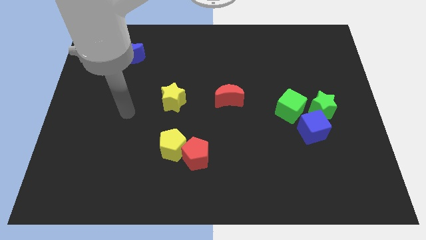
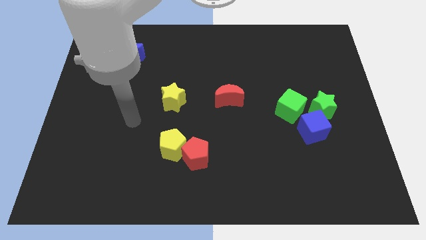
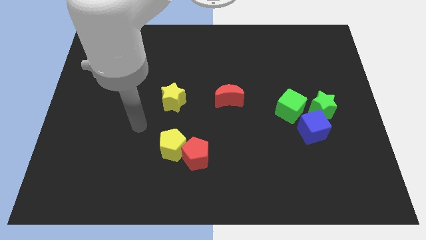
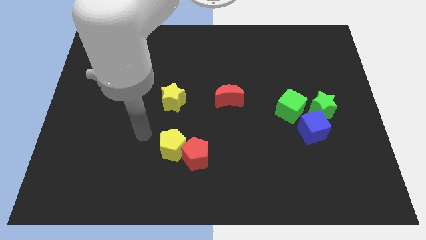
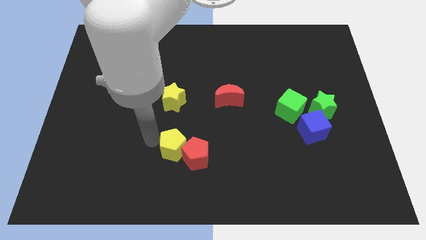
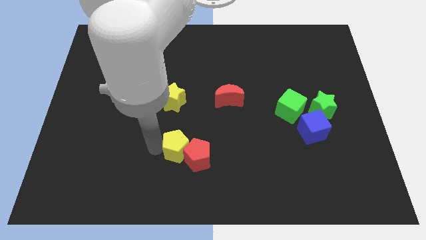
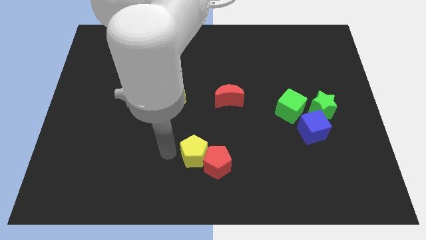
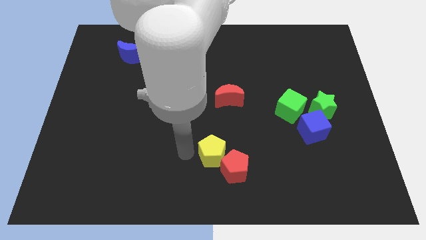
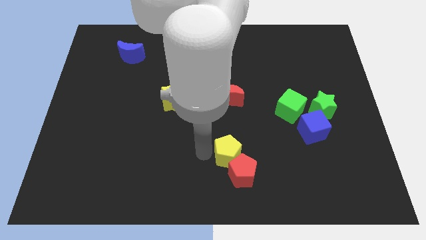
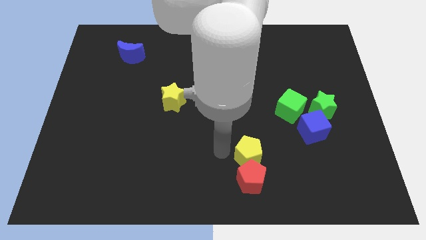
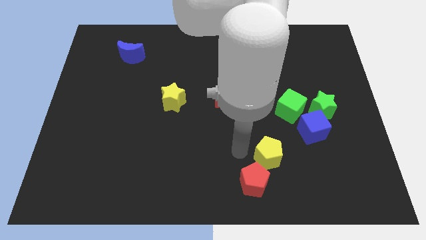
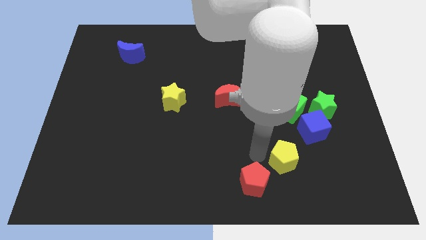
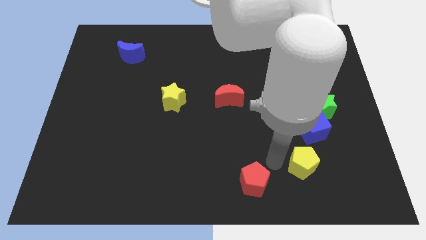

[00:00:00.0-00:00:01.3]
separate the red pentagon from the yellow pentagon

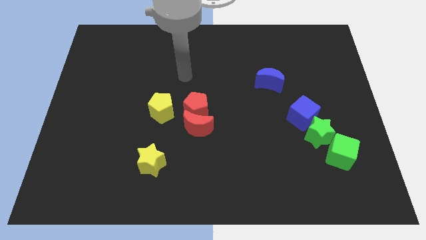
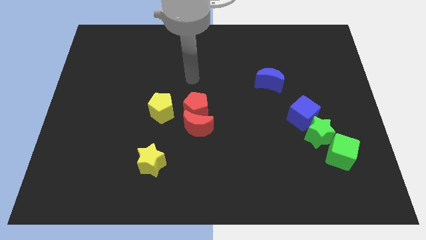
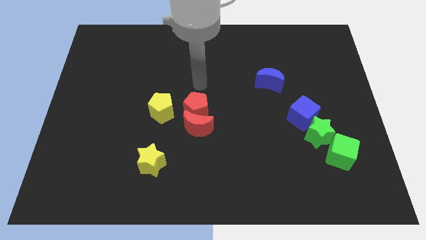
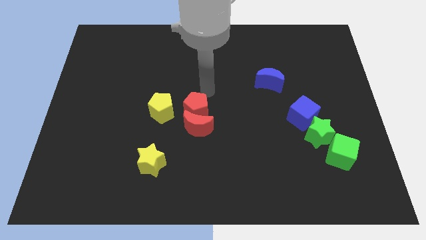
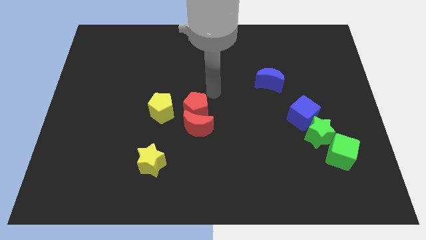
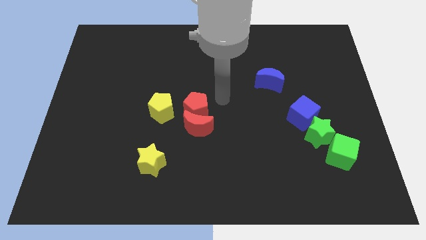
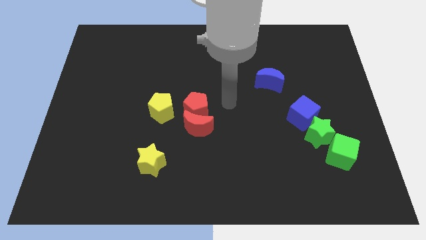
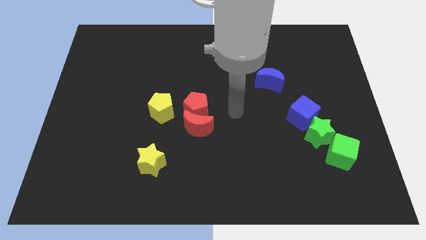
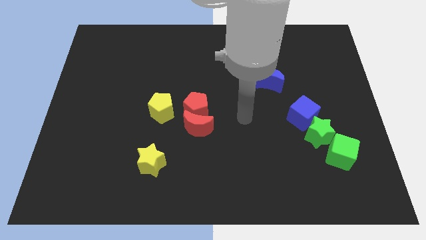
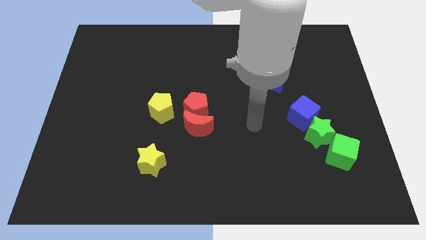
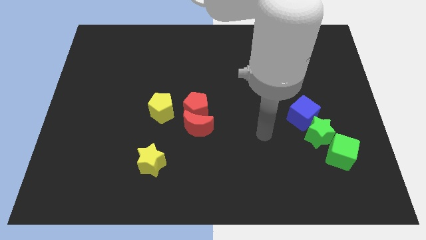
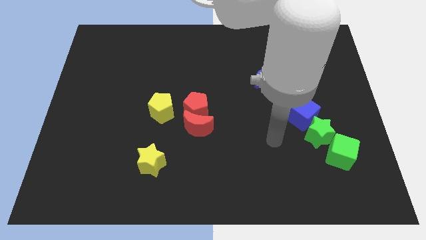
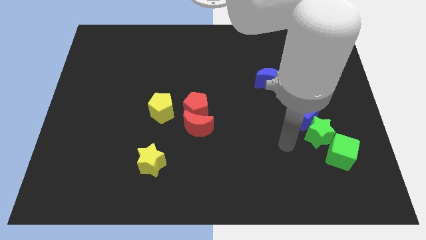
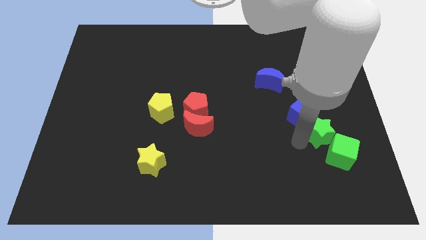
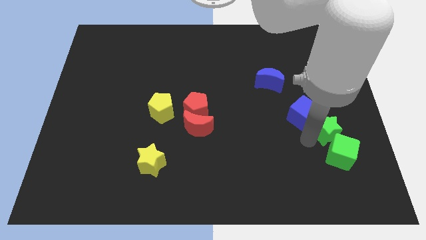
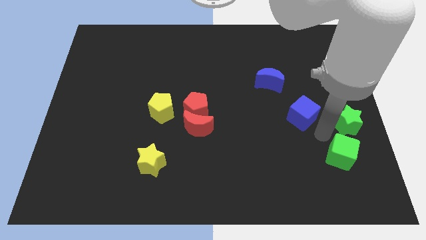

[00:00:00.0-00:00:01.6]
pull the blue cube apart from the green star

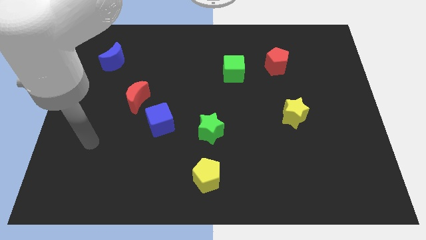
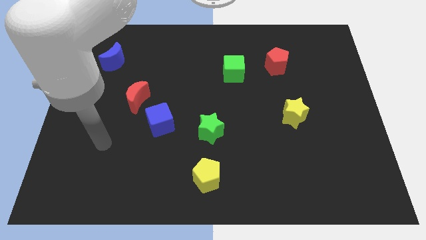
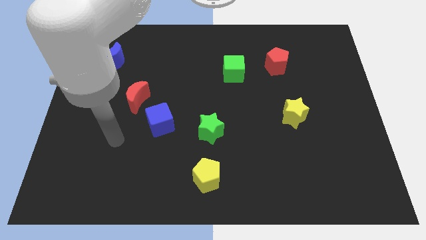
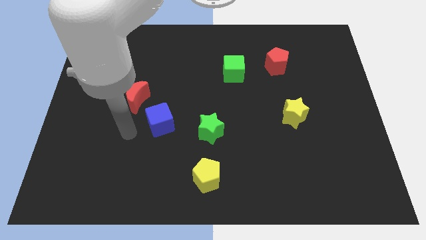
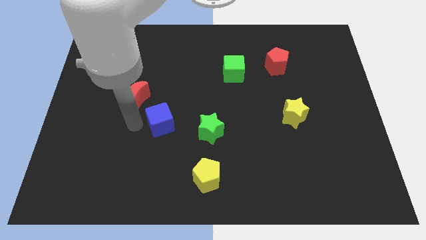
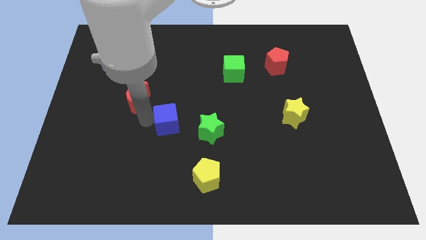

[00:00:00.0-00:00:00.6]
pull the red moon apart from the blue cube

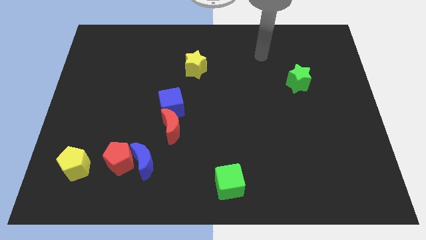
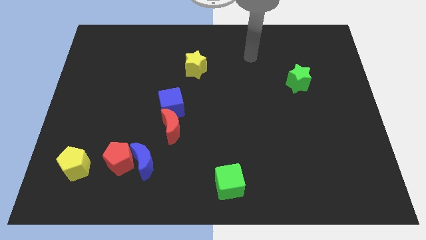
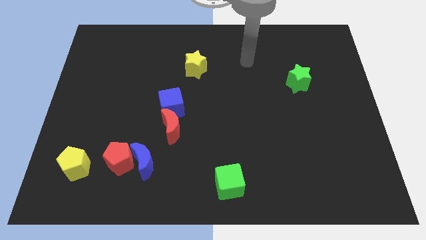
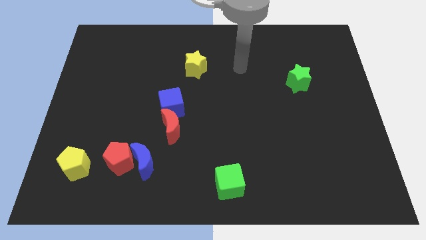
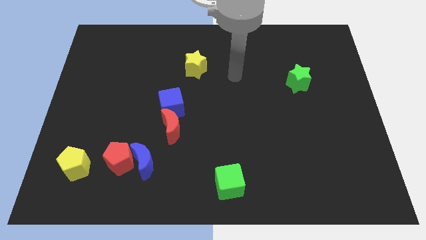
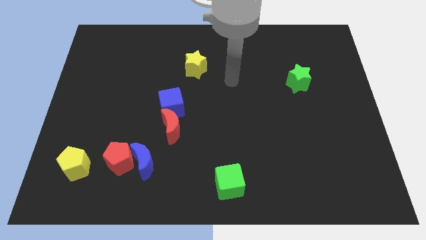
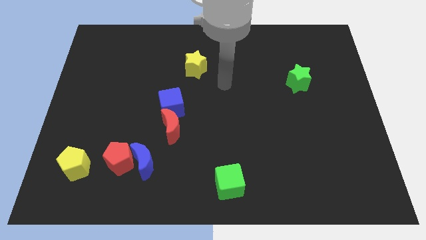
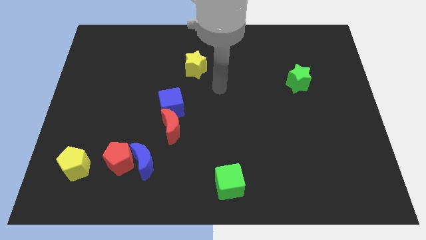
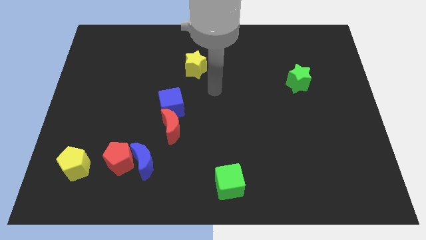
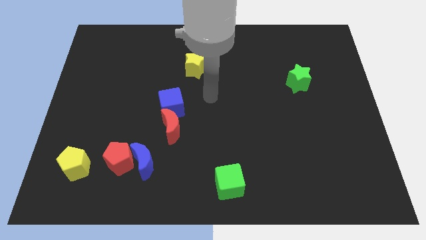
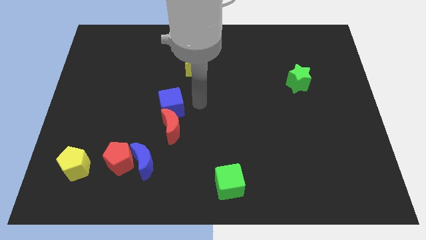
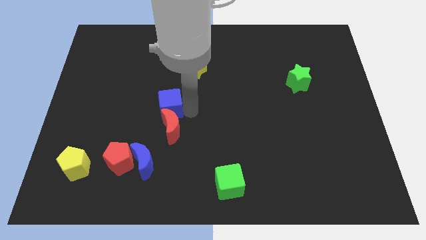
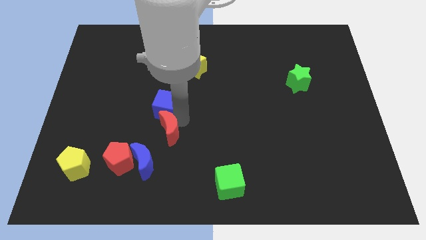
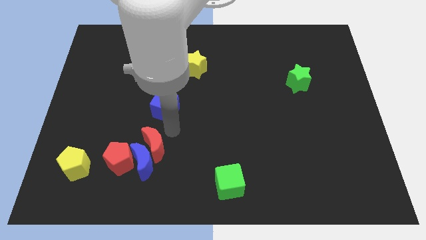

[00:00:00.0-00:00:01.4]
pull the blue cube apart from the red moon

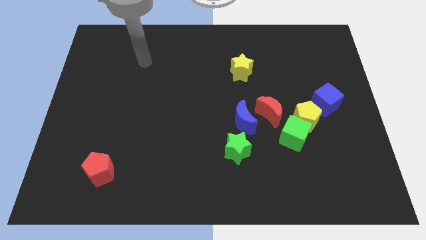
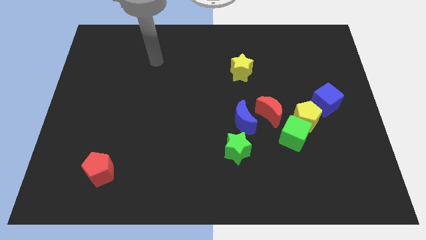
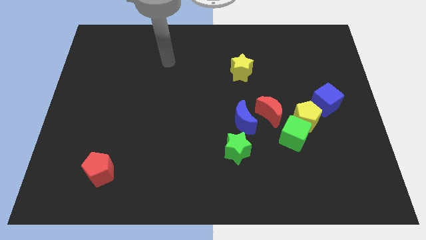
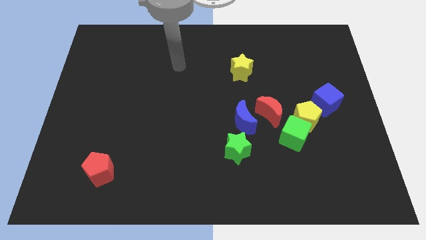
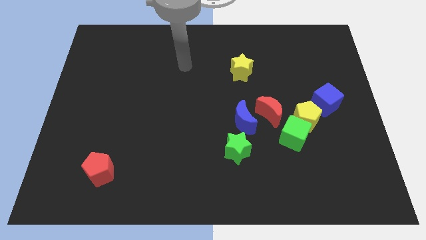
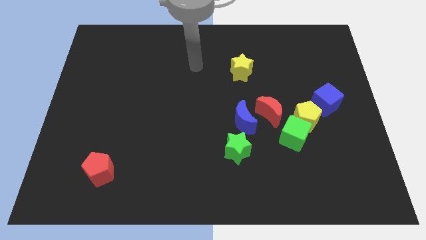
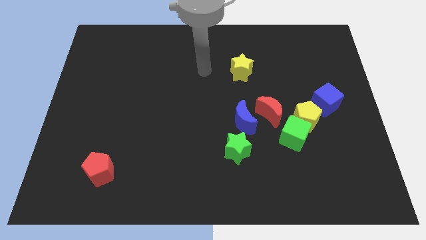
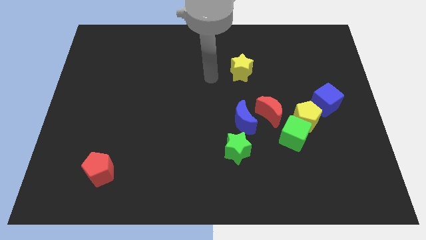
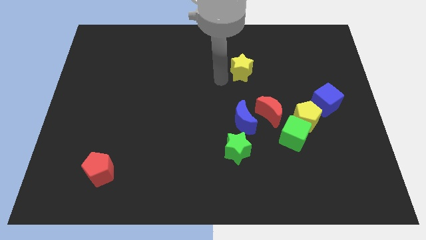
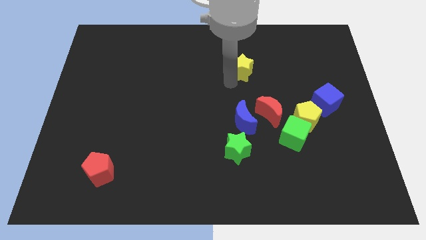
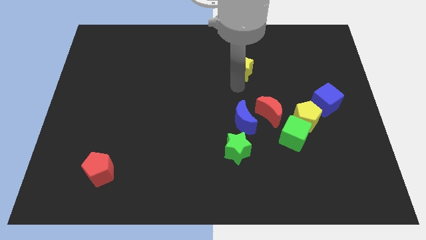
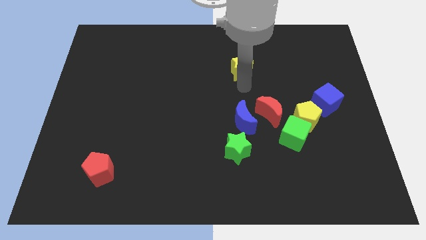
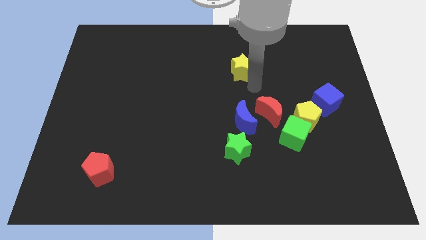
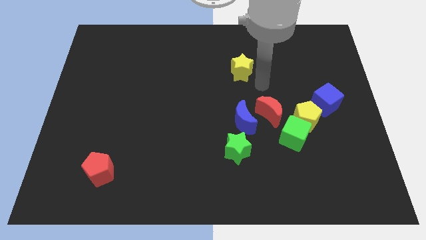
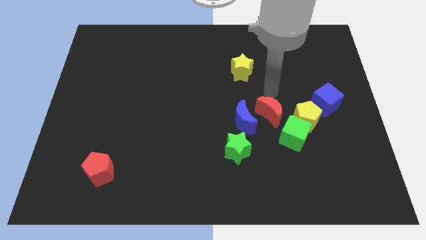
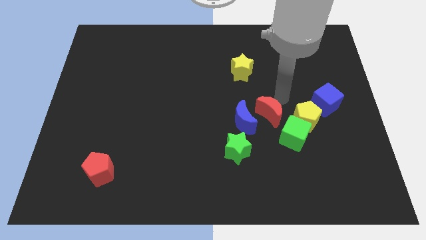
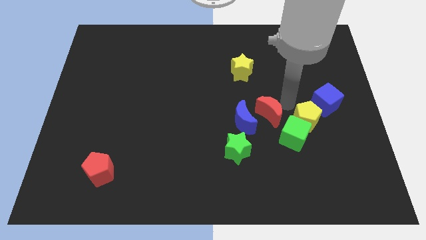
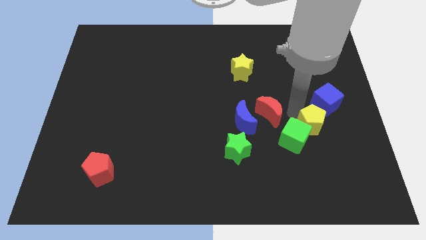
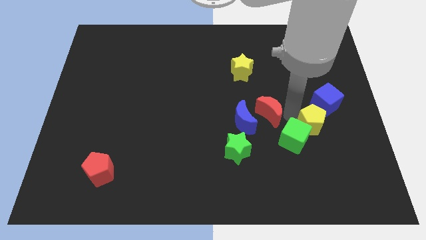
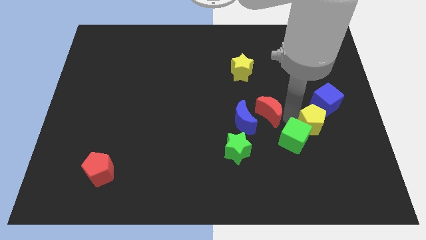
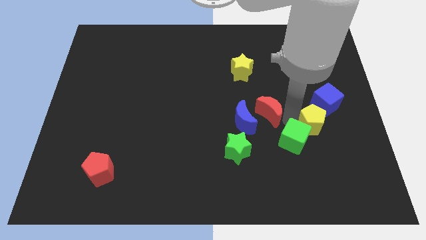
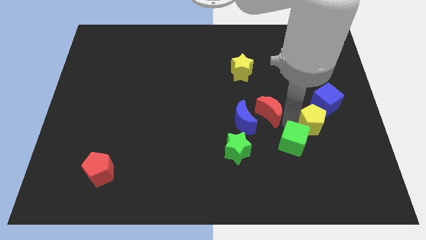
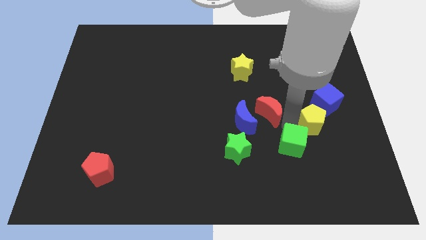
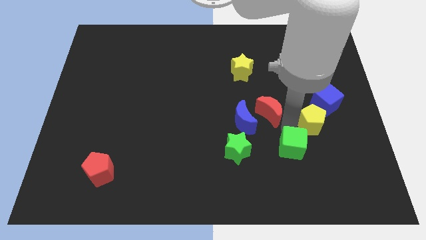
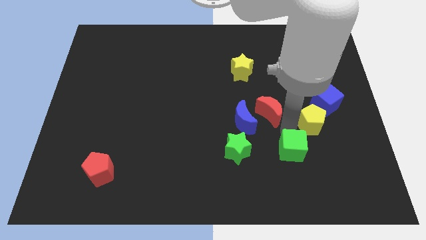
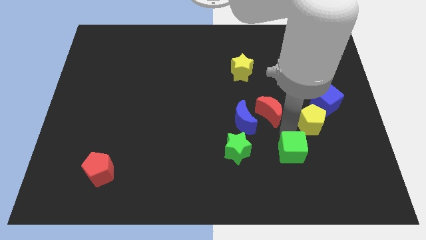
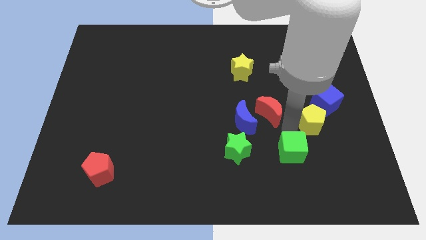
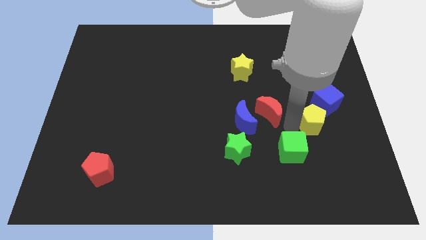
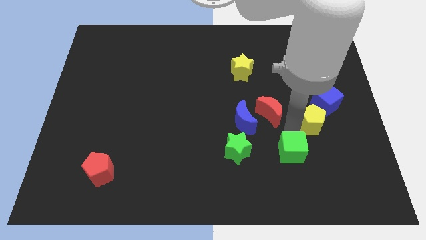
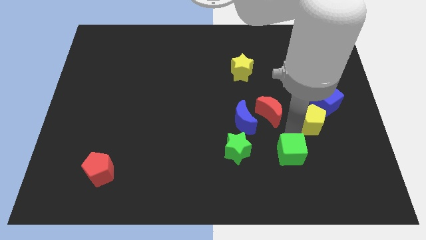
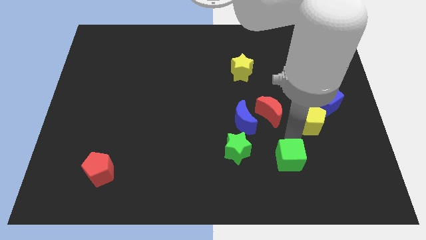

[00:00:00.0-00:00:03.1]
pull the green cube apart from the yellow pentagon and red moon

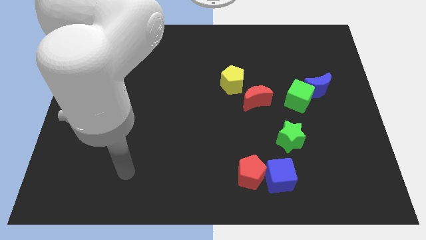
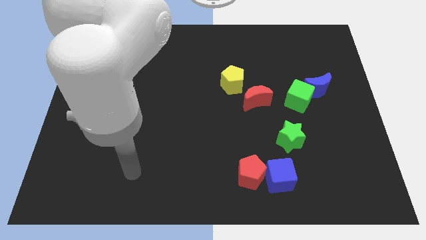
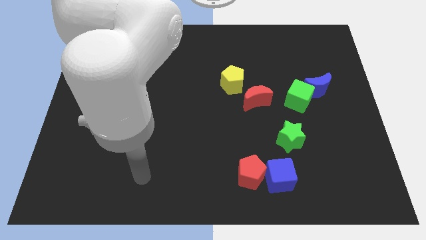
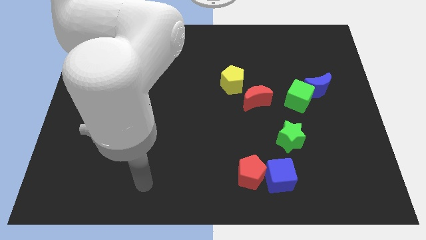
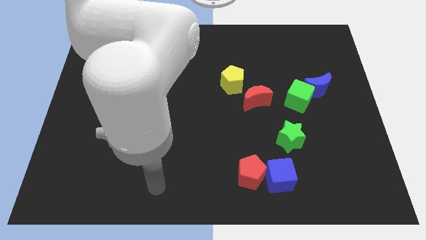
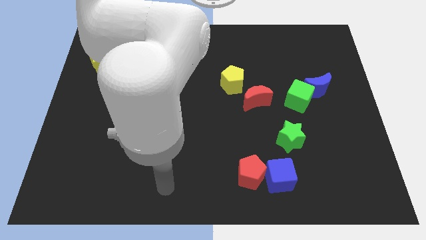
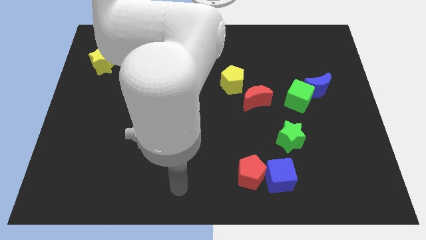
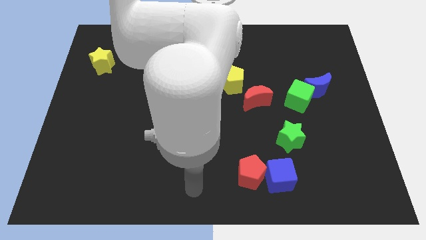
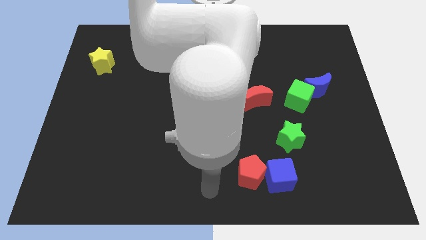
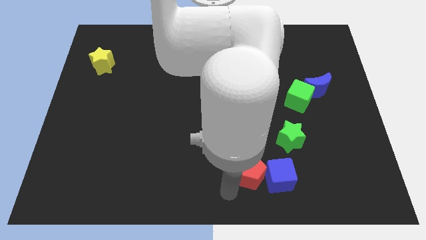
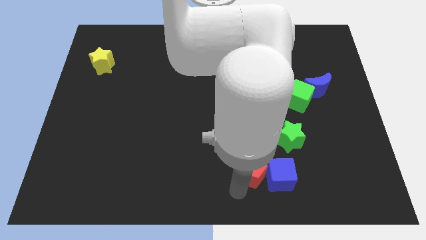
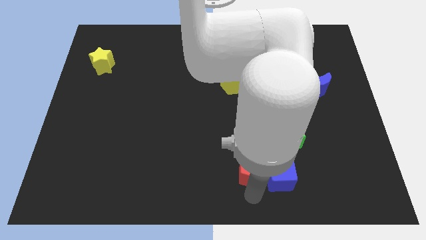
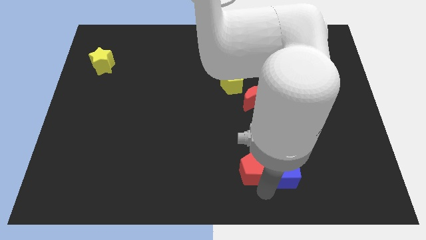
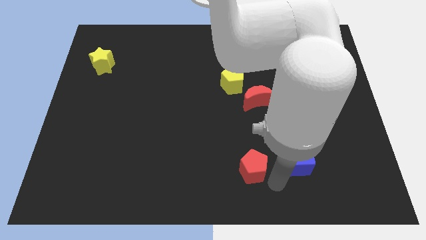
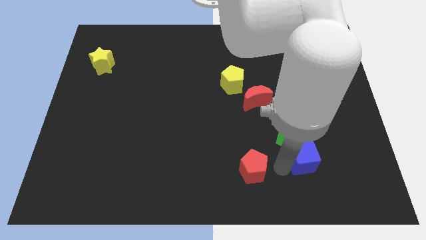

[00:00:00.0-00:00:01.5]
pull the red pentagon apart from the blue cube
